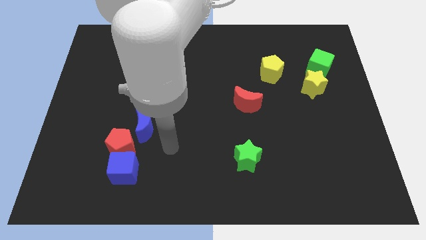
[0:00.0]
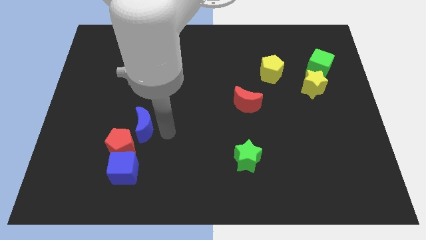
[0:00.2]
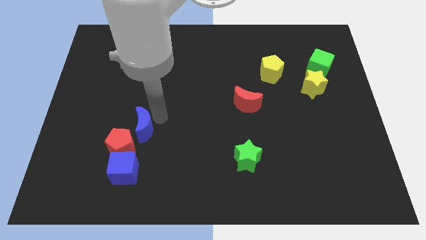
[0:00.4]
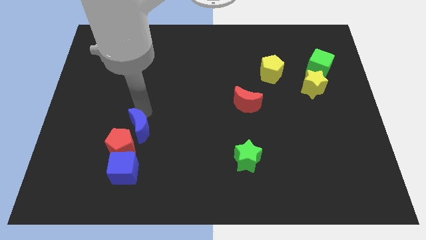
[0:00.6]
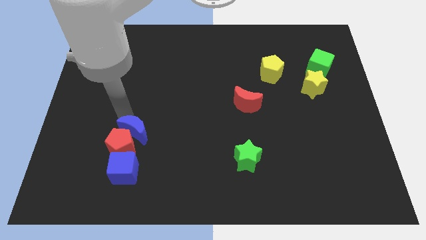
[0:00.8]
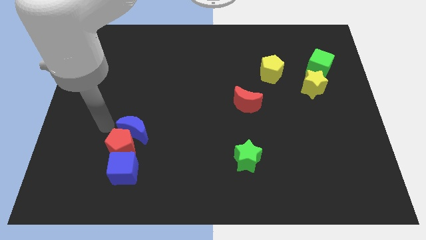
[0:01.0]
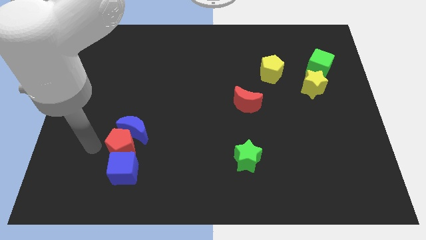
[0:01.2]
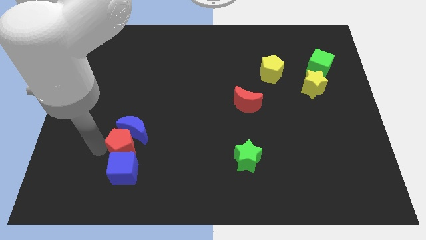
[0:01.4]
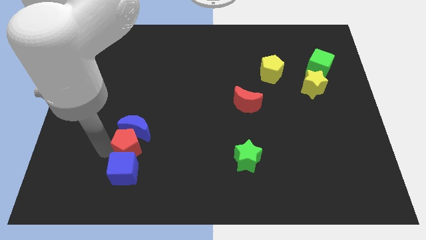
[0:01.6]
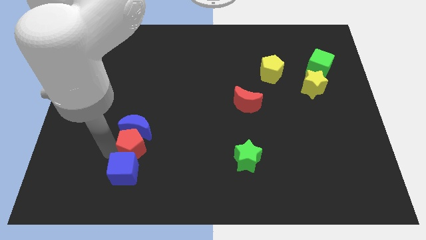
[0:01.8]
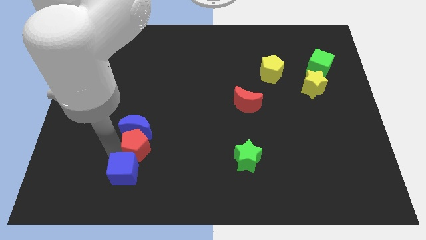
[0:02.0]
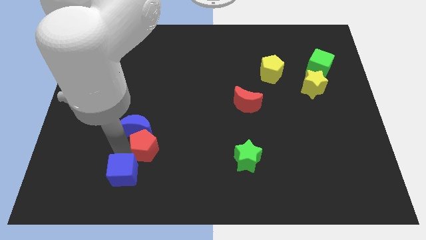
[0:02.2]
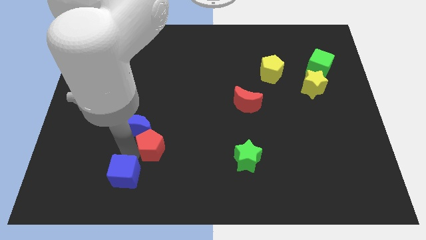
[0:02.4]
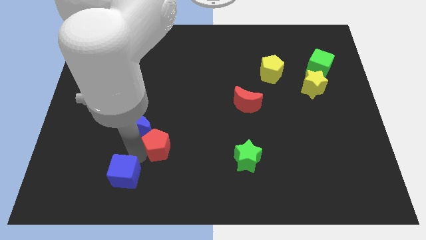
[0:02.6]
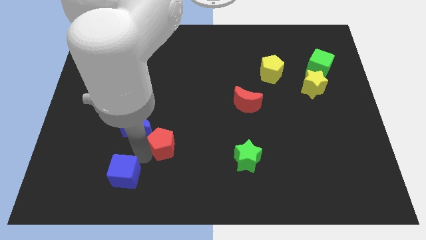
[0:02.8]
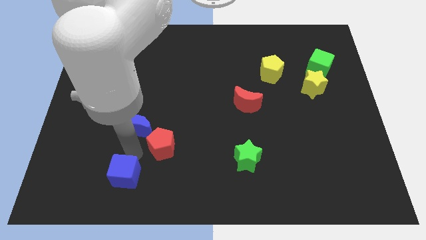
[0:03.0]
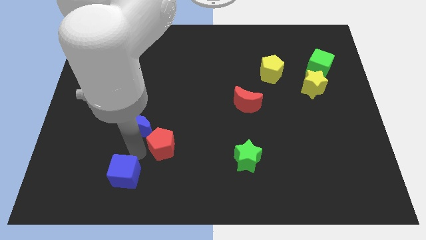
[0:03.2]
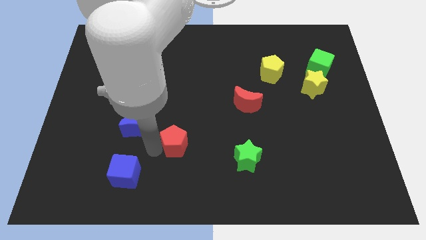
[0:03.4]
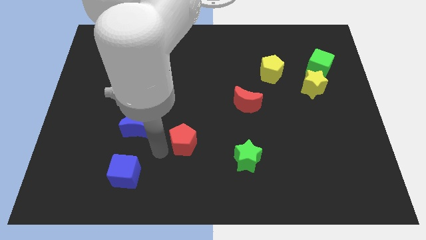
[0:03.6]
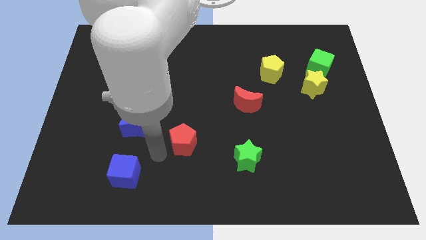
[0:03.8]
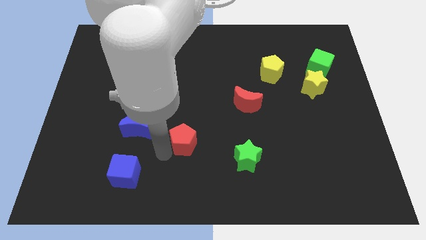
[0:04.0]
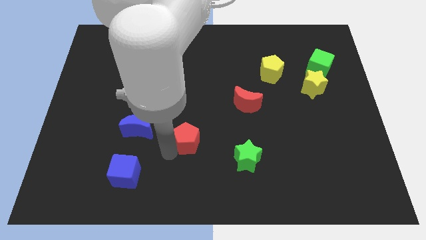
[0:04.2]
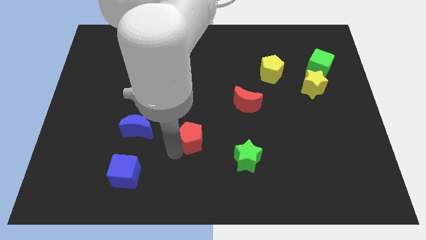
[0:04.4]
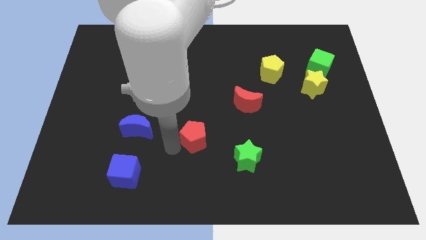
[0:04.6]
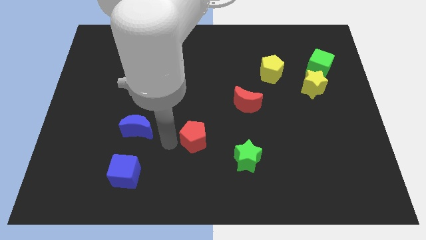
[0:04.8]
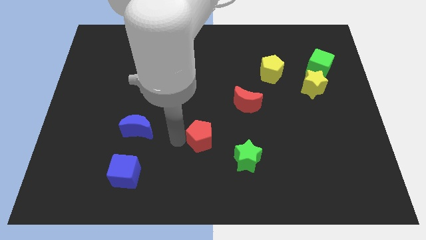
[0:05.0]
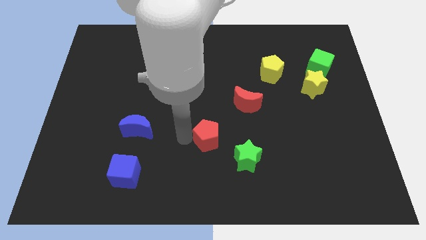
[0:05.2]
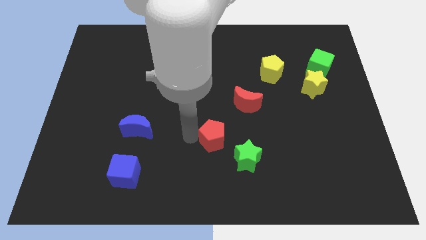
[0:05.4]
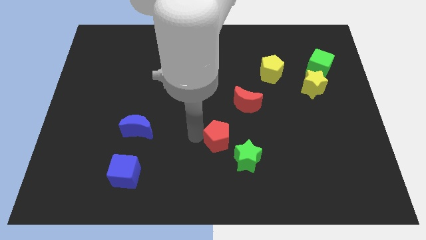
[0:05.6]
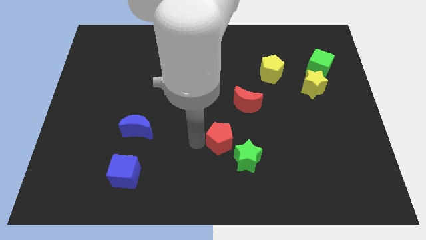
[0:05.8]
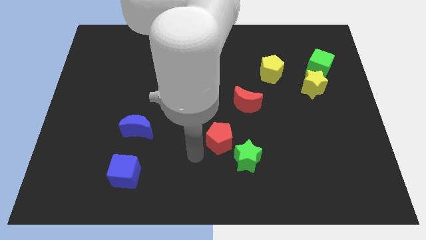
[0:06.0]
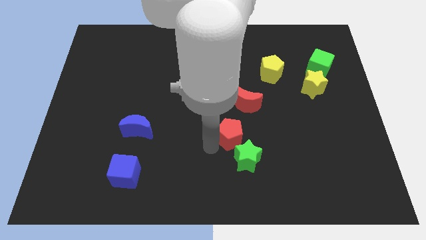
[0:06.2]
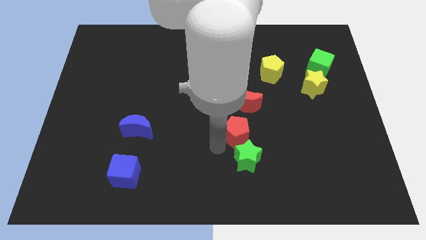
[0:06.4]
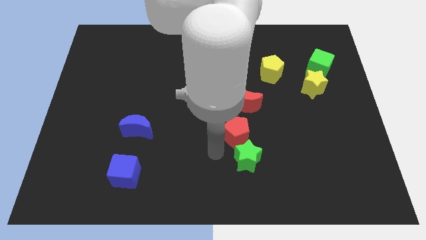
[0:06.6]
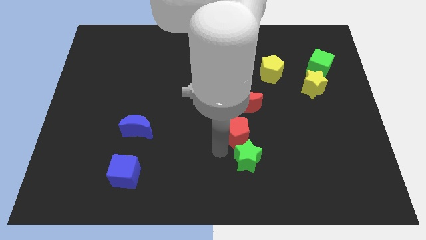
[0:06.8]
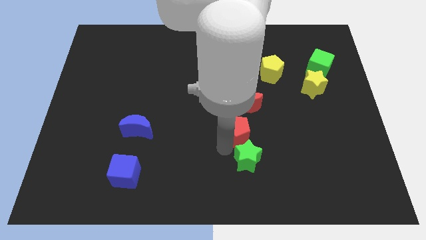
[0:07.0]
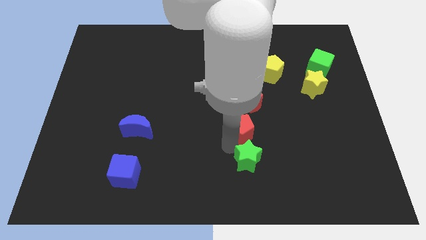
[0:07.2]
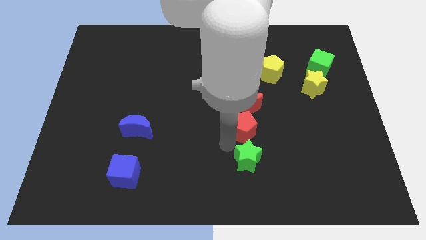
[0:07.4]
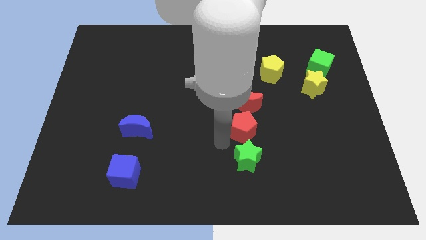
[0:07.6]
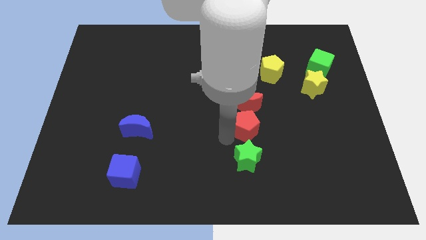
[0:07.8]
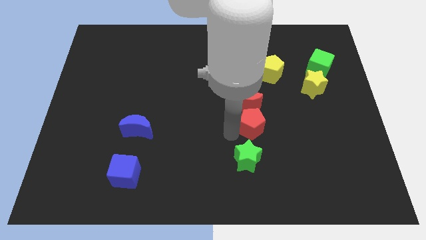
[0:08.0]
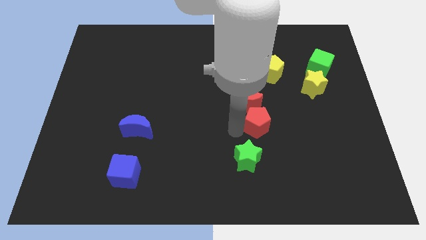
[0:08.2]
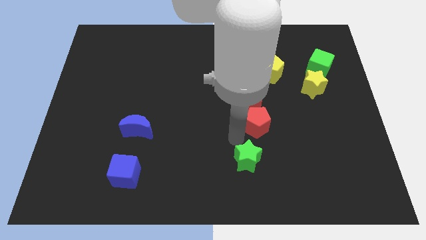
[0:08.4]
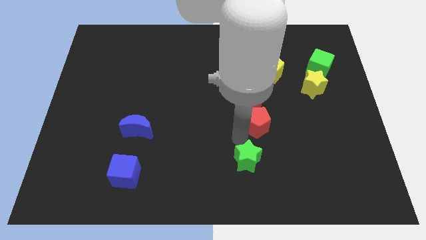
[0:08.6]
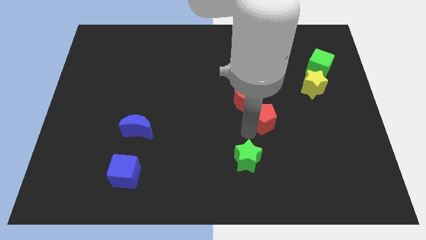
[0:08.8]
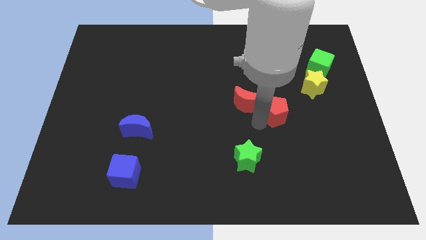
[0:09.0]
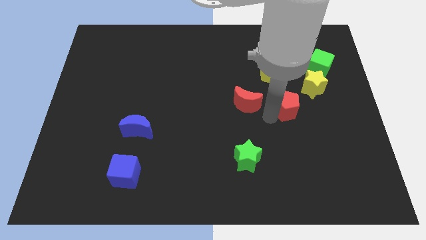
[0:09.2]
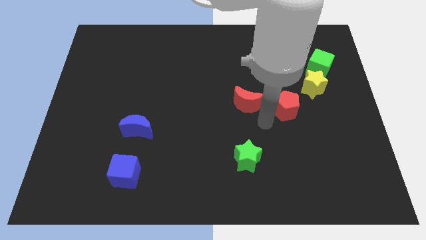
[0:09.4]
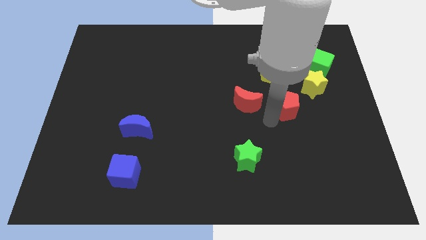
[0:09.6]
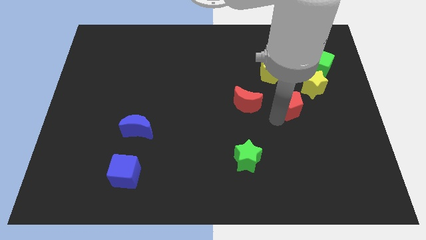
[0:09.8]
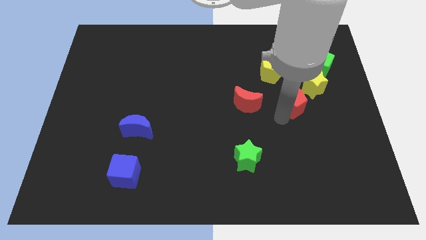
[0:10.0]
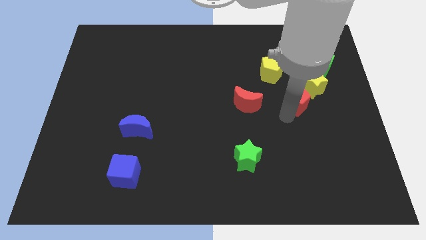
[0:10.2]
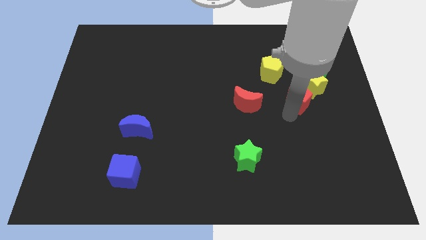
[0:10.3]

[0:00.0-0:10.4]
slide the red pentagon close to the yellow star

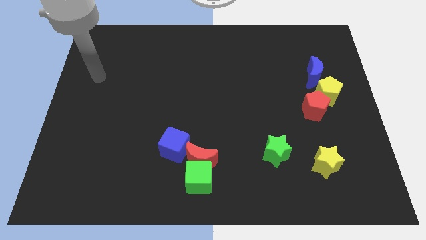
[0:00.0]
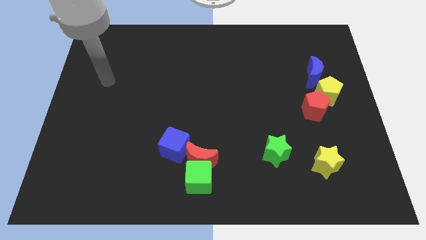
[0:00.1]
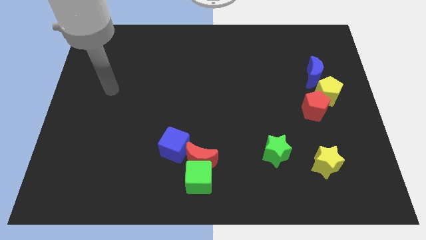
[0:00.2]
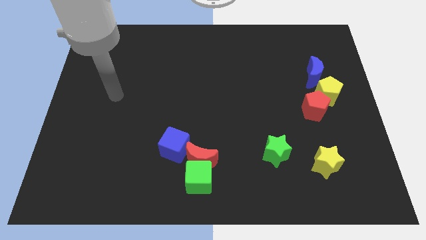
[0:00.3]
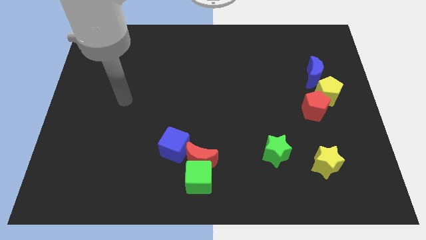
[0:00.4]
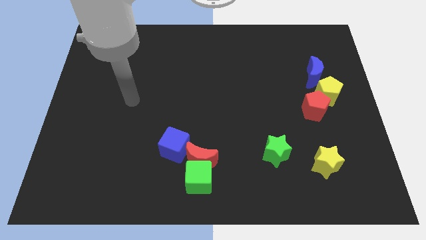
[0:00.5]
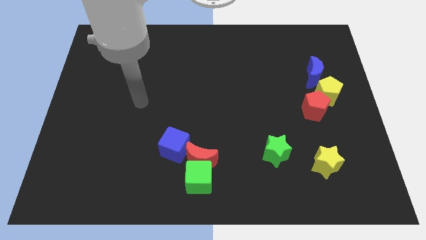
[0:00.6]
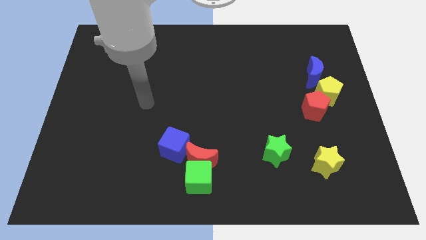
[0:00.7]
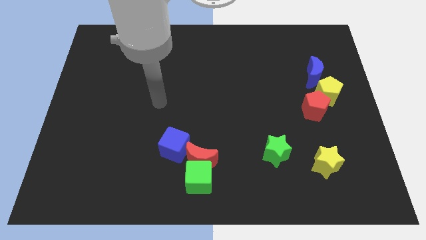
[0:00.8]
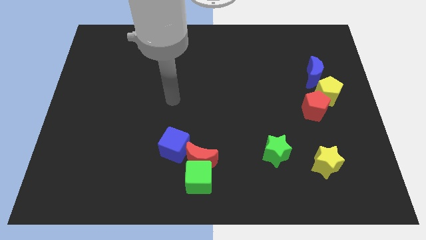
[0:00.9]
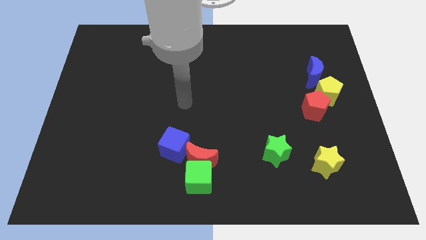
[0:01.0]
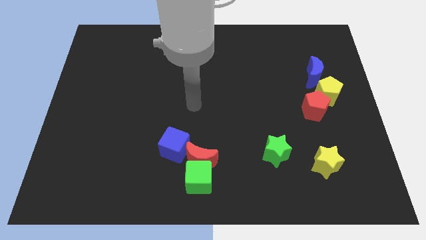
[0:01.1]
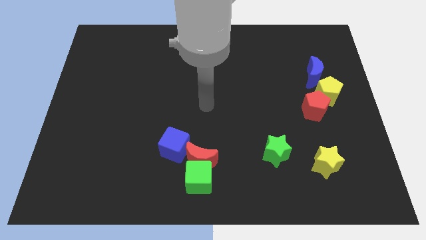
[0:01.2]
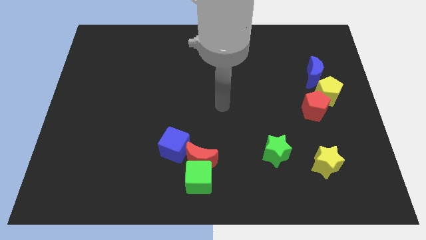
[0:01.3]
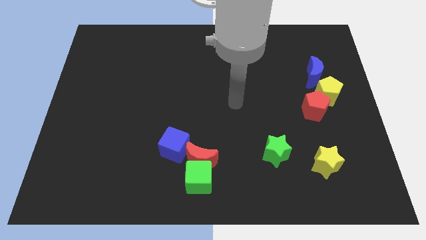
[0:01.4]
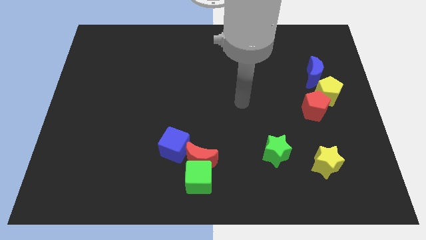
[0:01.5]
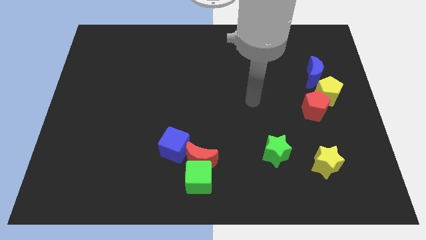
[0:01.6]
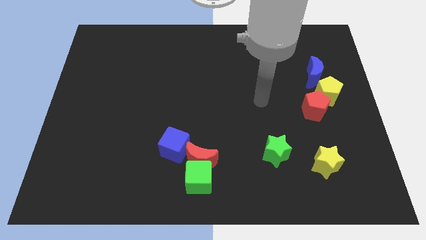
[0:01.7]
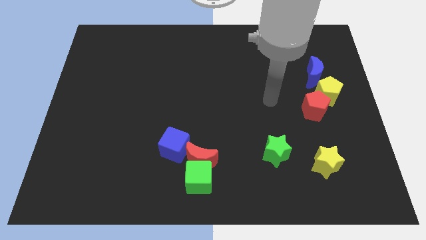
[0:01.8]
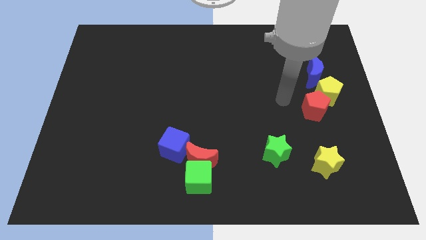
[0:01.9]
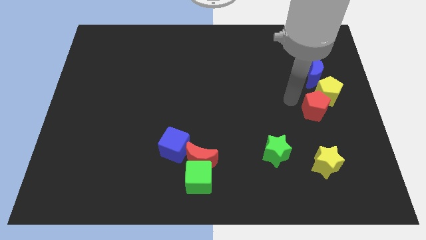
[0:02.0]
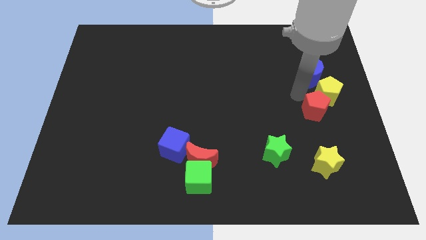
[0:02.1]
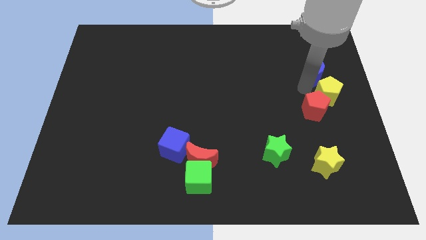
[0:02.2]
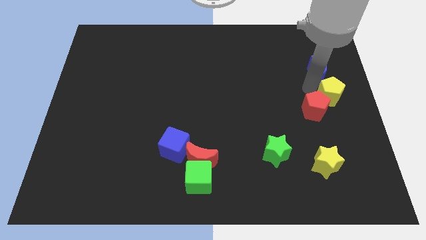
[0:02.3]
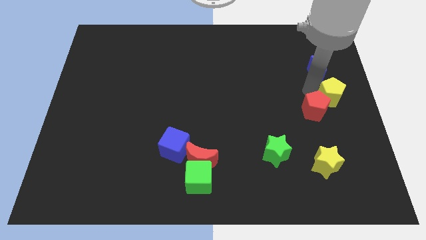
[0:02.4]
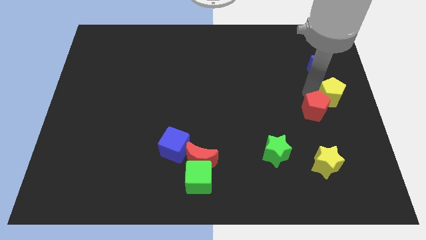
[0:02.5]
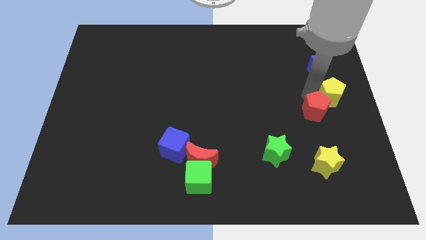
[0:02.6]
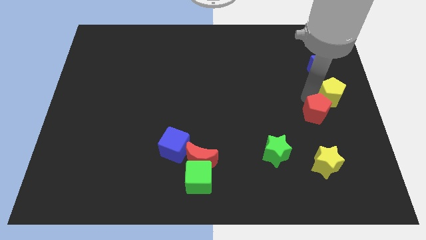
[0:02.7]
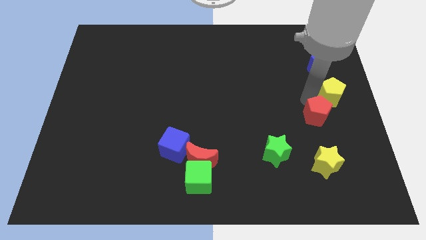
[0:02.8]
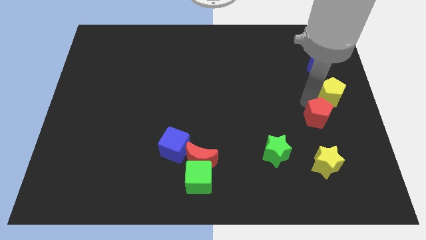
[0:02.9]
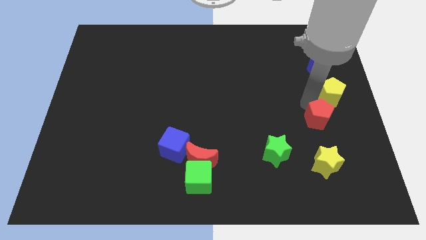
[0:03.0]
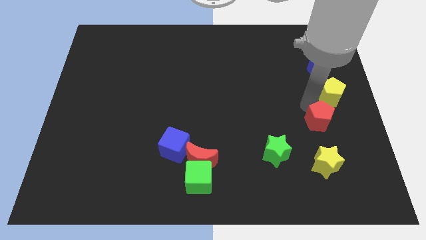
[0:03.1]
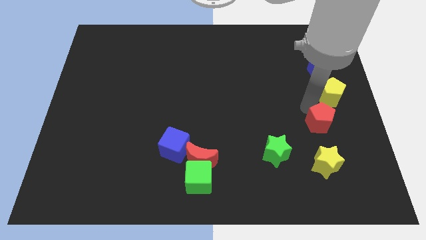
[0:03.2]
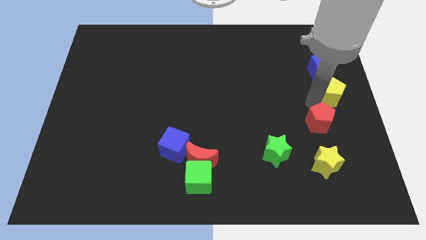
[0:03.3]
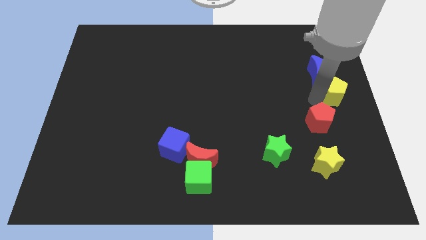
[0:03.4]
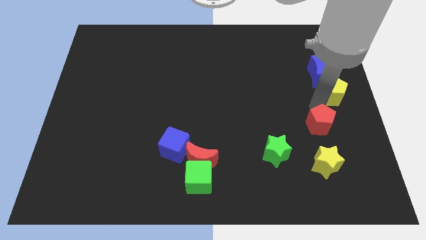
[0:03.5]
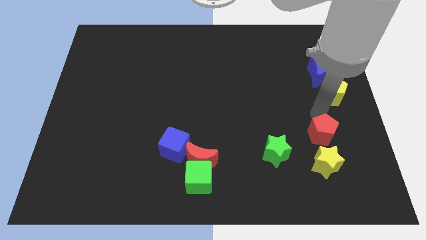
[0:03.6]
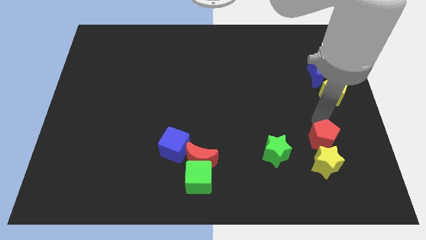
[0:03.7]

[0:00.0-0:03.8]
put the red pentagon next to the yellow star
